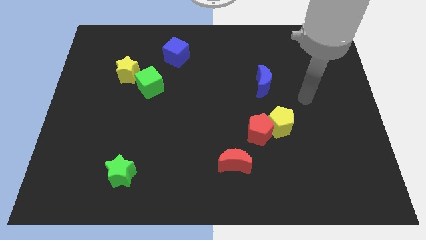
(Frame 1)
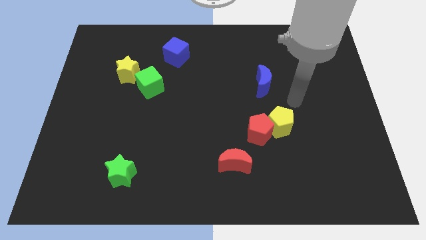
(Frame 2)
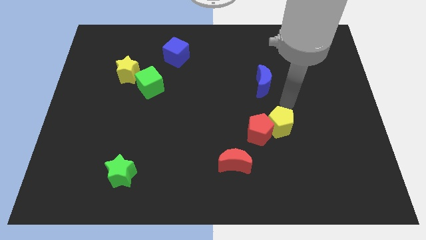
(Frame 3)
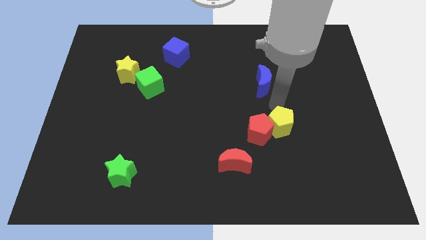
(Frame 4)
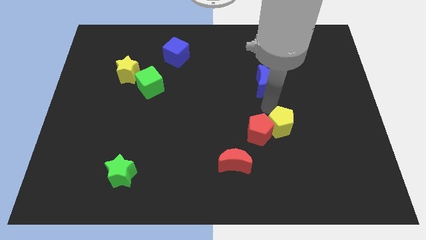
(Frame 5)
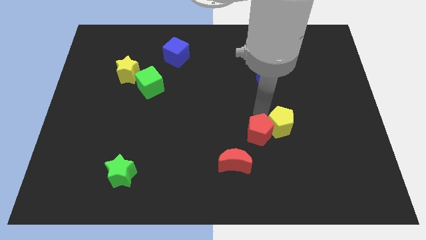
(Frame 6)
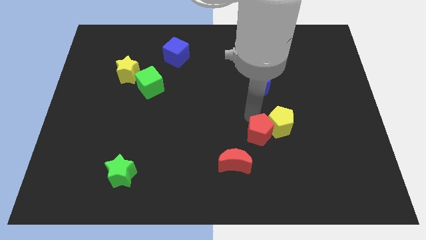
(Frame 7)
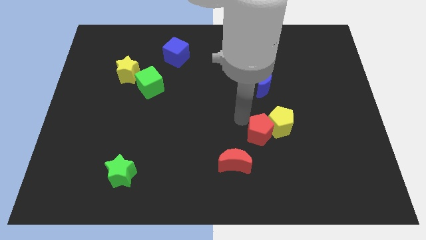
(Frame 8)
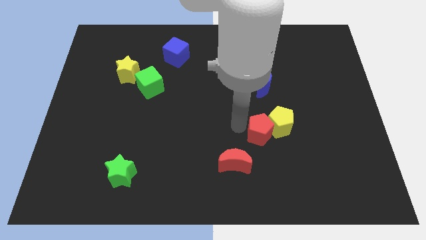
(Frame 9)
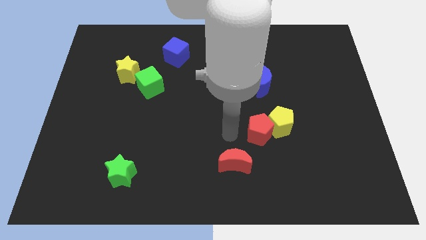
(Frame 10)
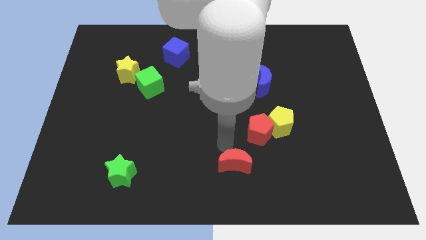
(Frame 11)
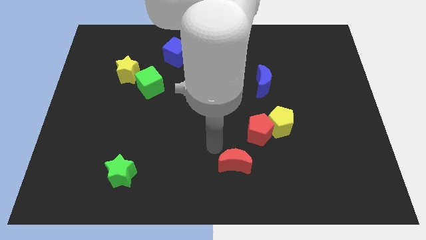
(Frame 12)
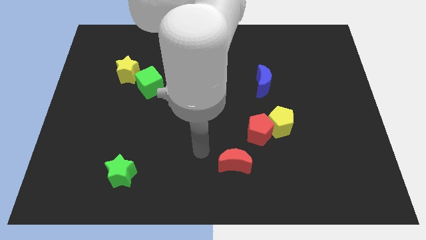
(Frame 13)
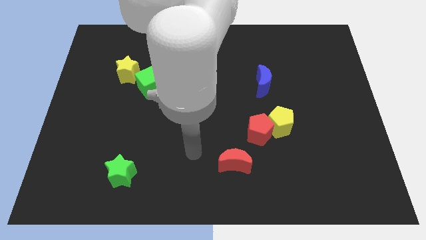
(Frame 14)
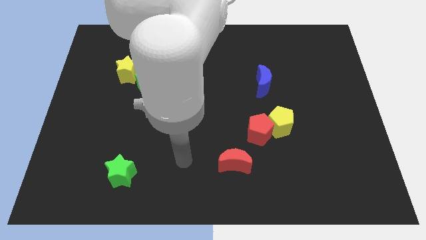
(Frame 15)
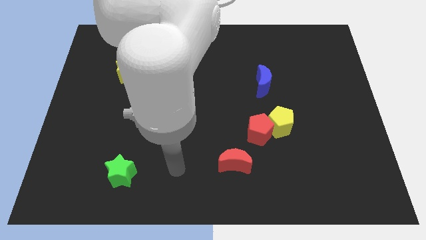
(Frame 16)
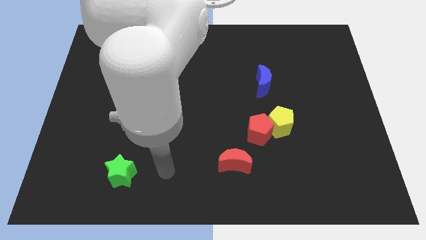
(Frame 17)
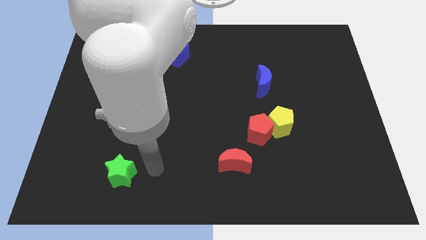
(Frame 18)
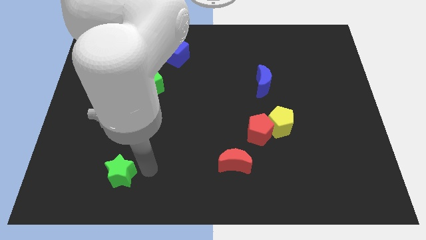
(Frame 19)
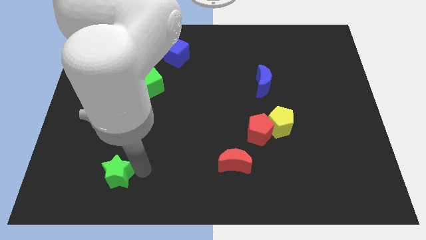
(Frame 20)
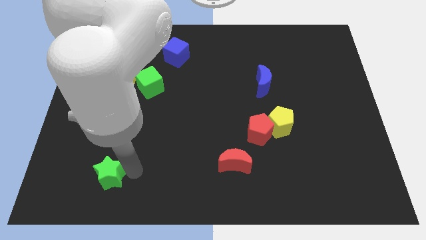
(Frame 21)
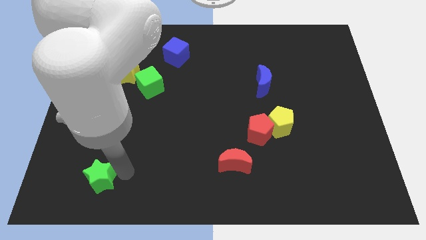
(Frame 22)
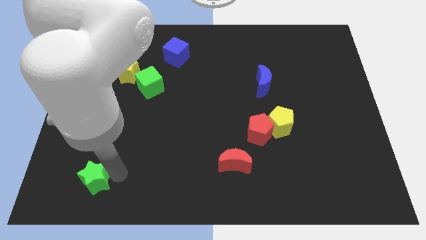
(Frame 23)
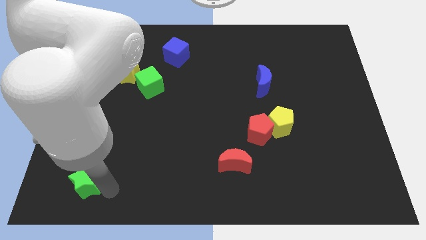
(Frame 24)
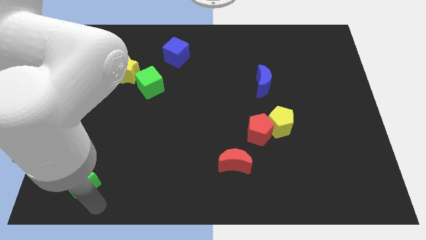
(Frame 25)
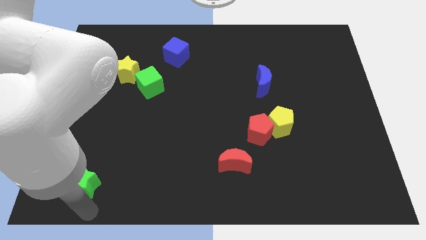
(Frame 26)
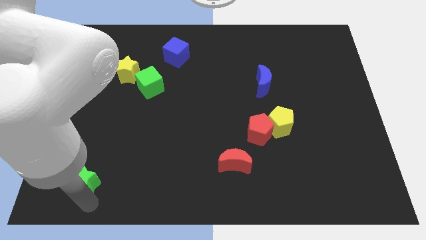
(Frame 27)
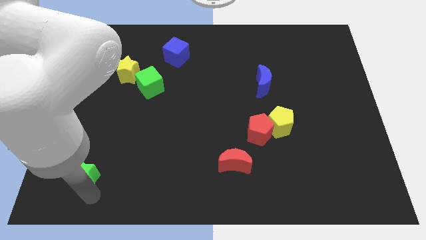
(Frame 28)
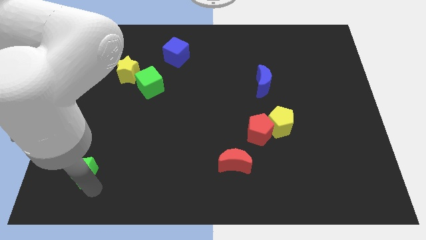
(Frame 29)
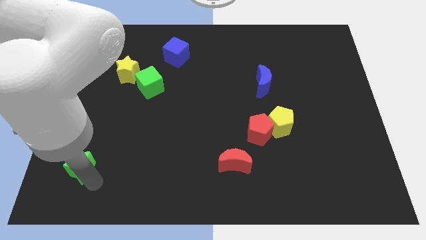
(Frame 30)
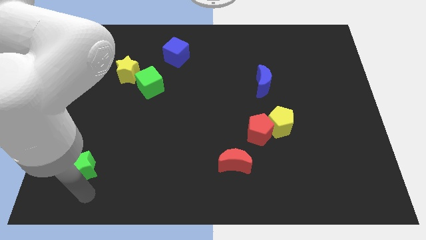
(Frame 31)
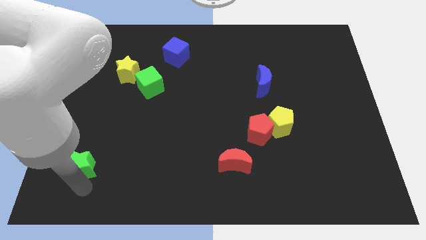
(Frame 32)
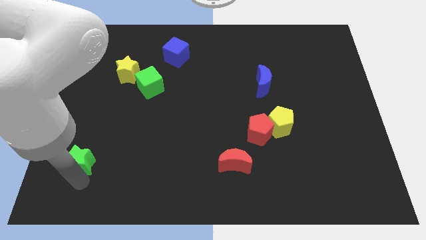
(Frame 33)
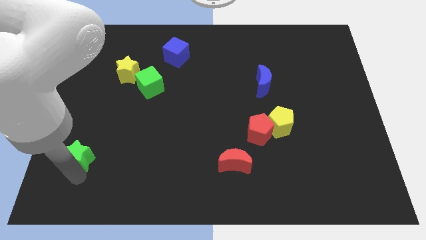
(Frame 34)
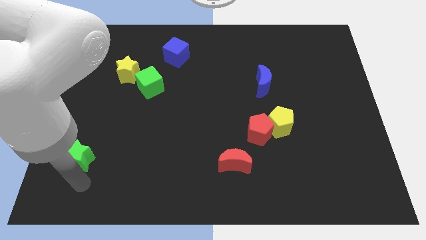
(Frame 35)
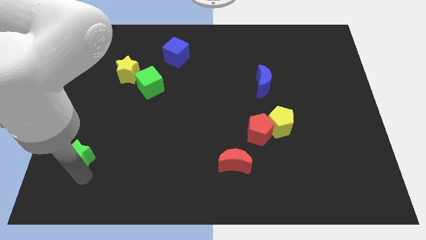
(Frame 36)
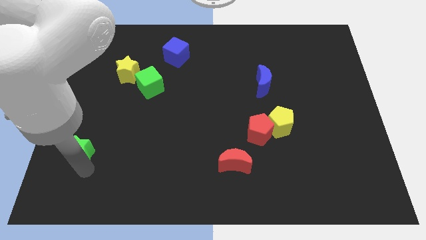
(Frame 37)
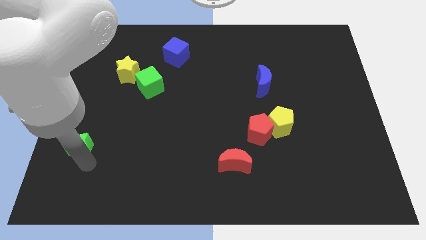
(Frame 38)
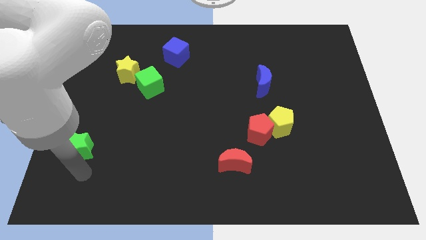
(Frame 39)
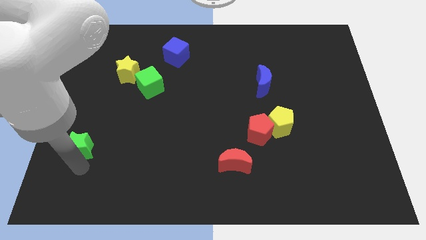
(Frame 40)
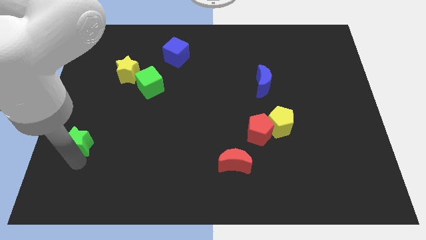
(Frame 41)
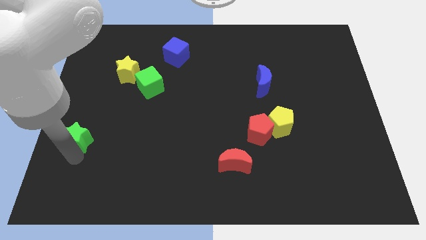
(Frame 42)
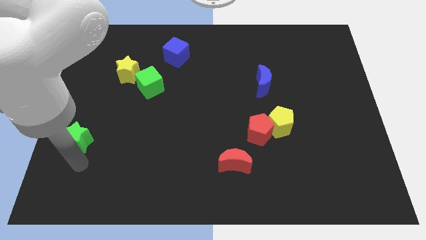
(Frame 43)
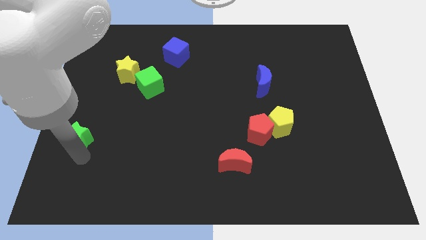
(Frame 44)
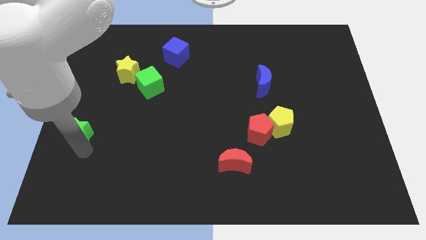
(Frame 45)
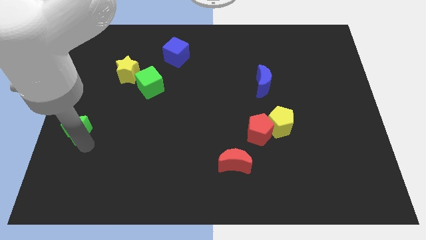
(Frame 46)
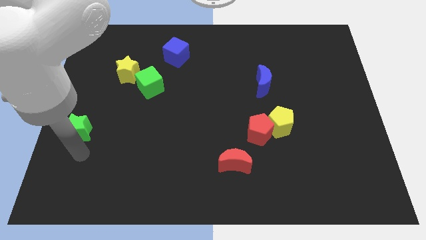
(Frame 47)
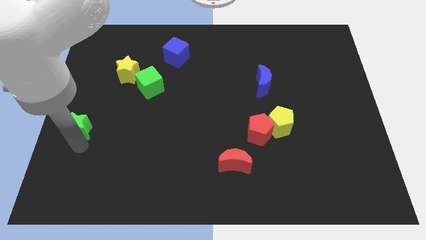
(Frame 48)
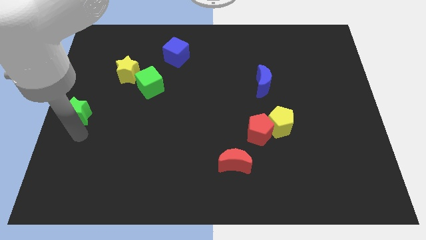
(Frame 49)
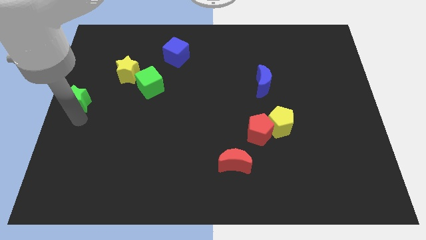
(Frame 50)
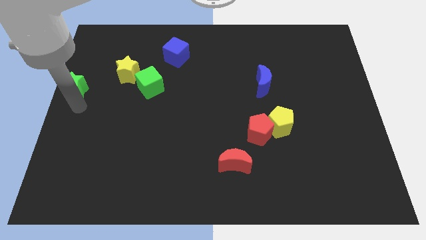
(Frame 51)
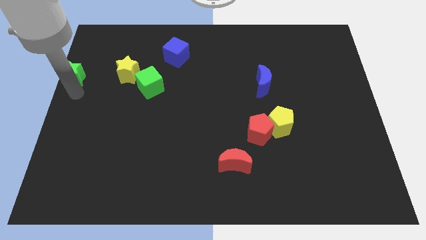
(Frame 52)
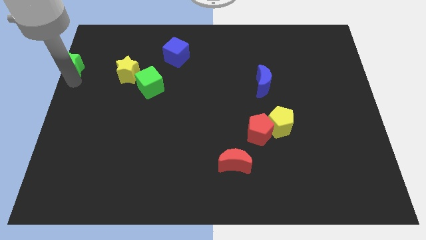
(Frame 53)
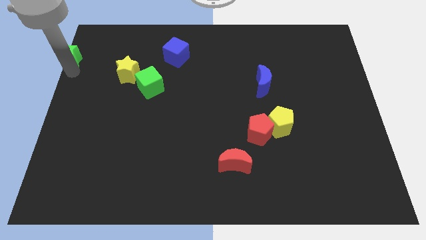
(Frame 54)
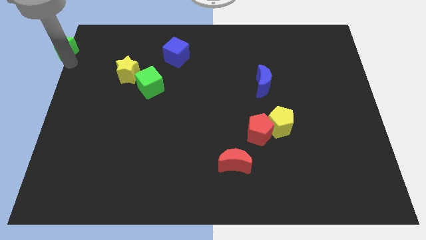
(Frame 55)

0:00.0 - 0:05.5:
slide the green star to the upper left corner

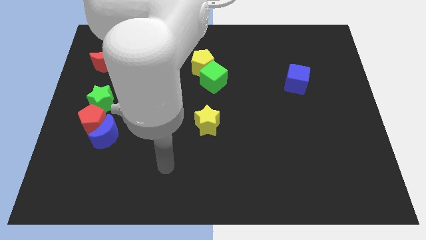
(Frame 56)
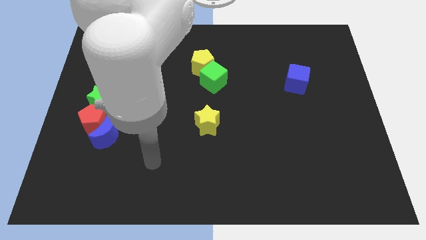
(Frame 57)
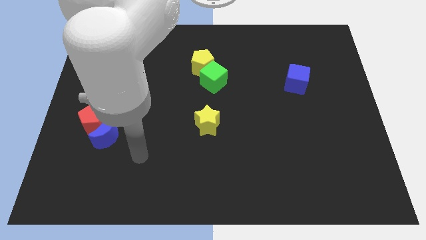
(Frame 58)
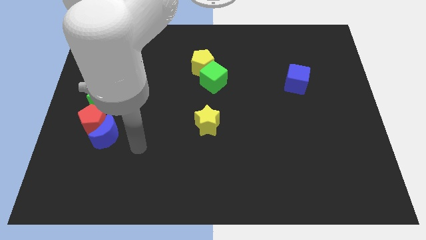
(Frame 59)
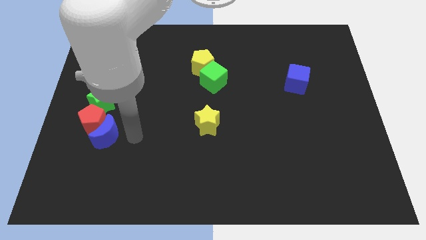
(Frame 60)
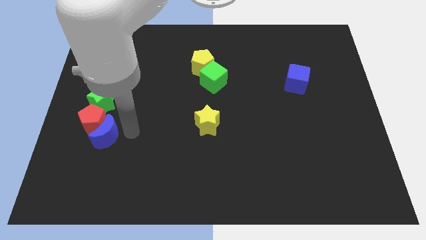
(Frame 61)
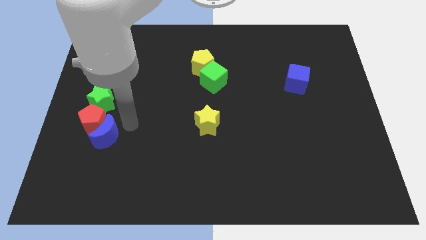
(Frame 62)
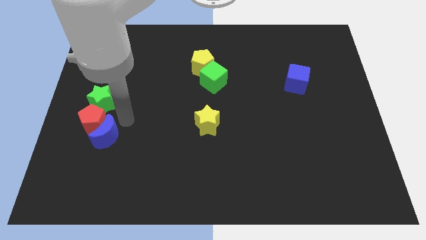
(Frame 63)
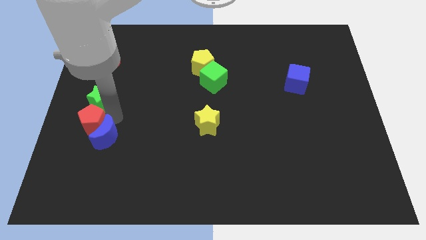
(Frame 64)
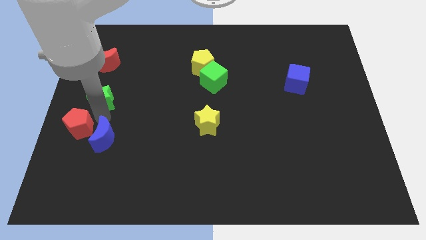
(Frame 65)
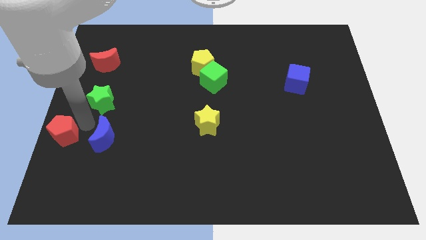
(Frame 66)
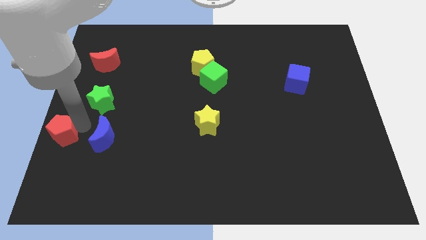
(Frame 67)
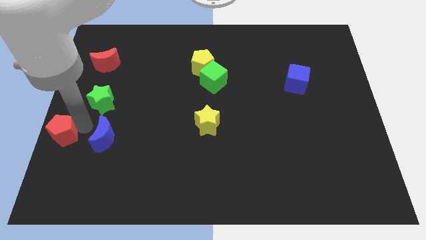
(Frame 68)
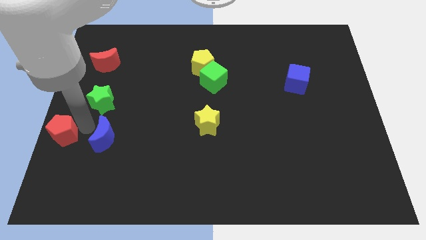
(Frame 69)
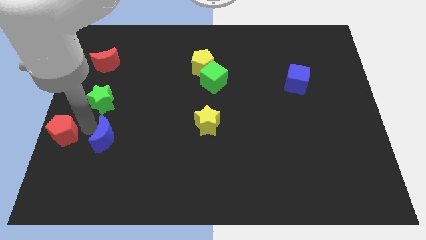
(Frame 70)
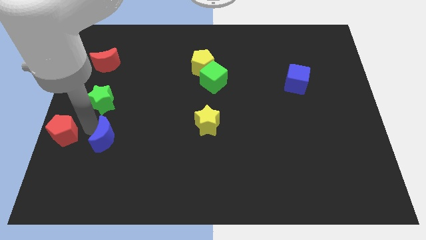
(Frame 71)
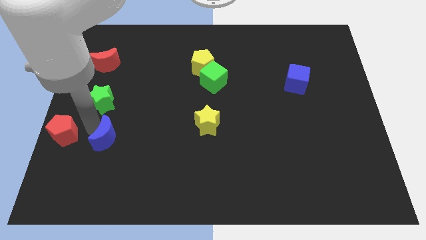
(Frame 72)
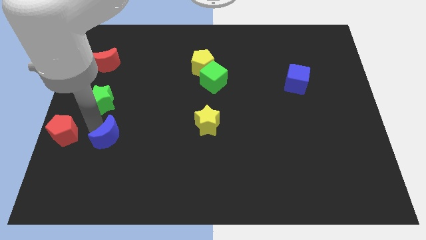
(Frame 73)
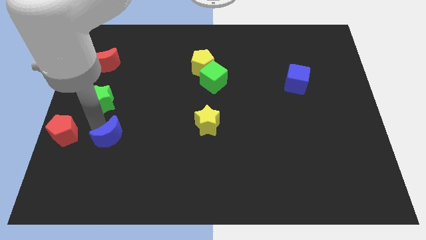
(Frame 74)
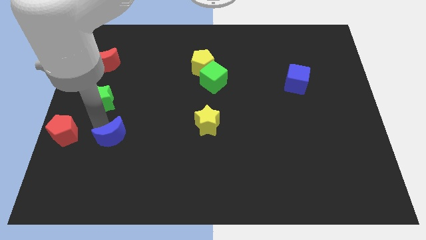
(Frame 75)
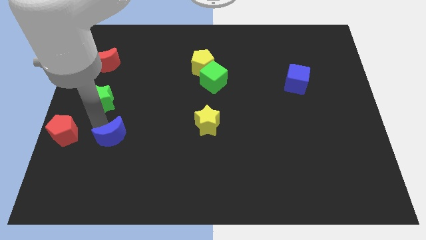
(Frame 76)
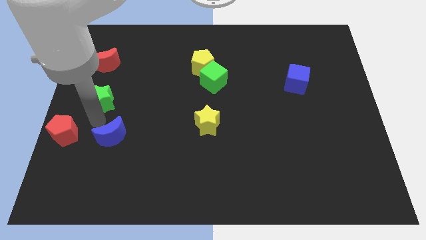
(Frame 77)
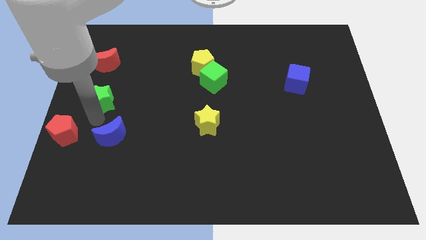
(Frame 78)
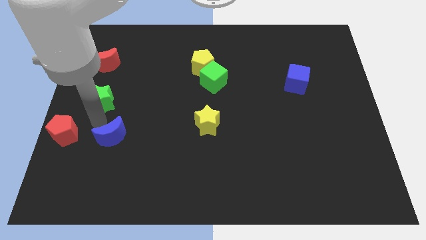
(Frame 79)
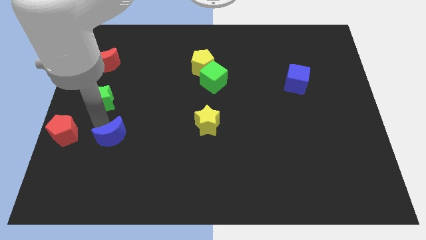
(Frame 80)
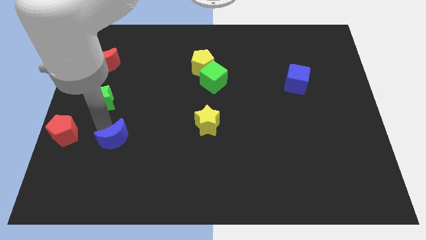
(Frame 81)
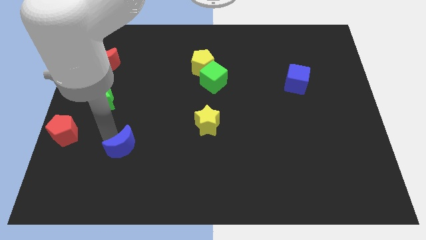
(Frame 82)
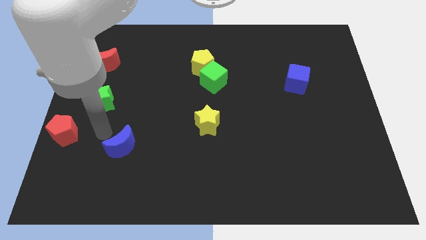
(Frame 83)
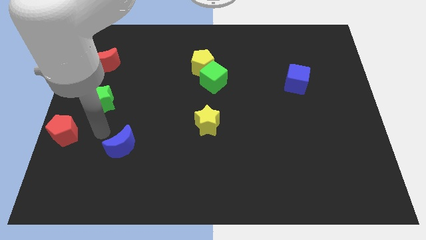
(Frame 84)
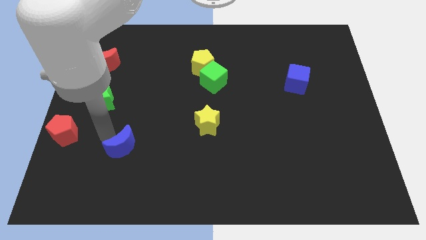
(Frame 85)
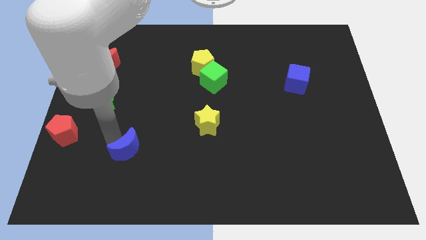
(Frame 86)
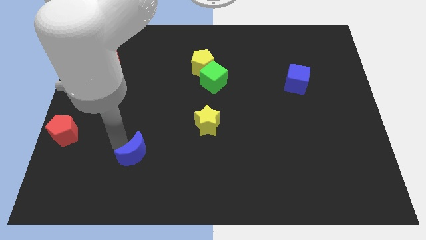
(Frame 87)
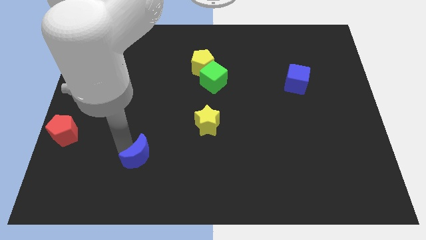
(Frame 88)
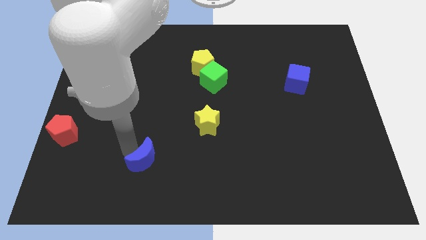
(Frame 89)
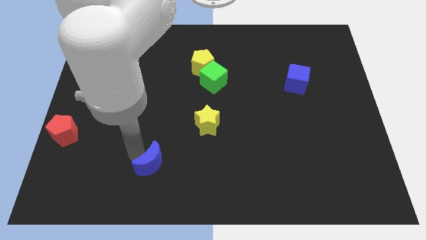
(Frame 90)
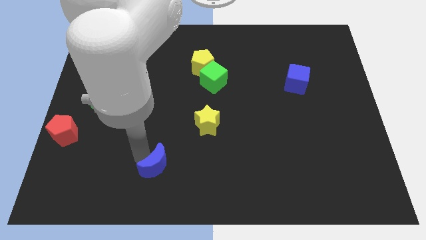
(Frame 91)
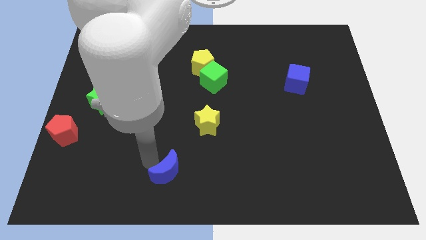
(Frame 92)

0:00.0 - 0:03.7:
push the blue moon to the bottom side
